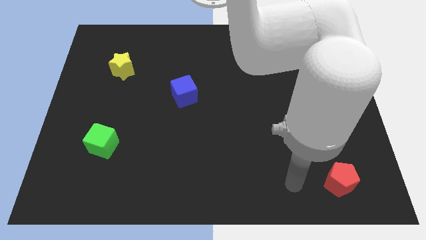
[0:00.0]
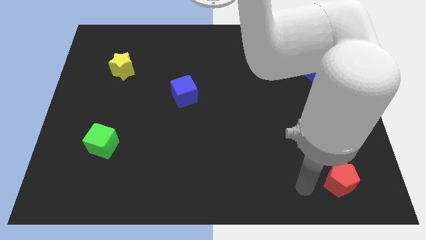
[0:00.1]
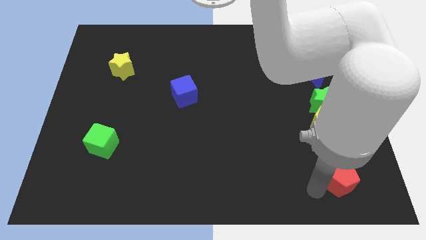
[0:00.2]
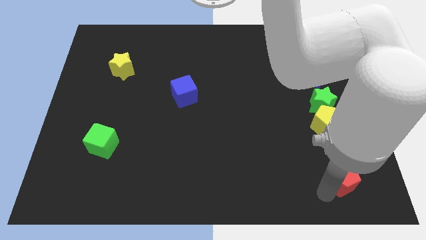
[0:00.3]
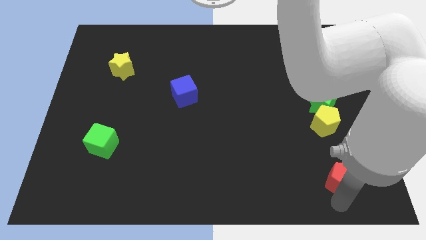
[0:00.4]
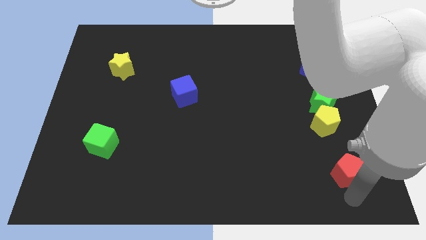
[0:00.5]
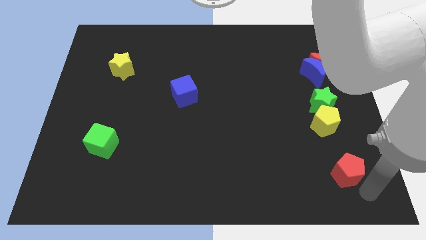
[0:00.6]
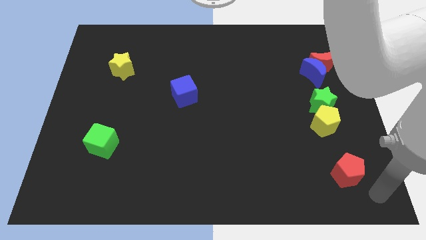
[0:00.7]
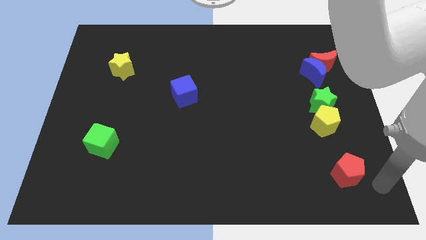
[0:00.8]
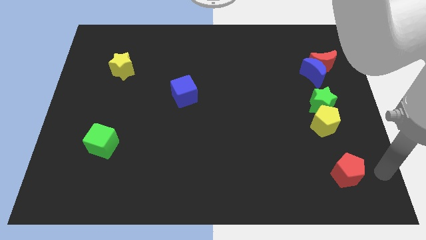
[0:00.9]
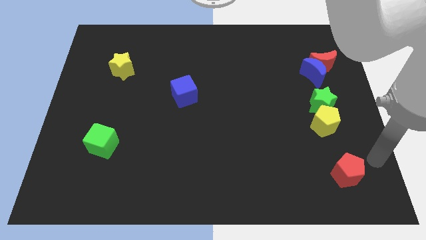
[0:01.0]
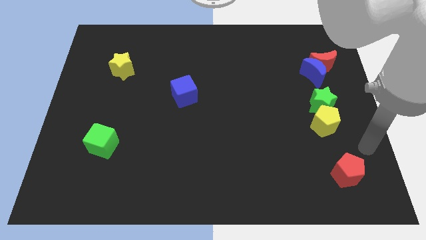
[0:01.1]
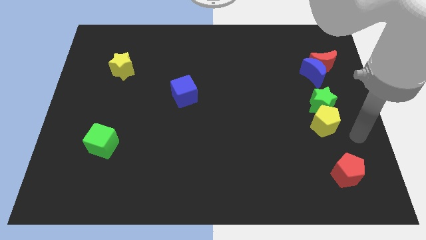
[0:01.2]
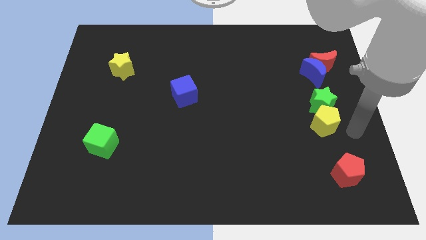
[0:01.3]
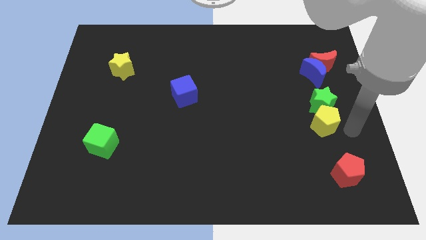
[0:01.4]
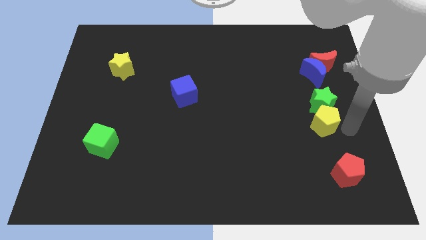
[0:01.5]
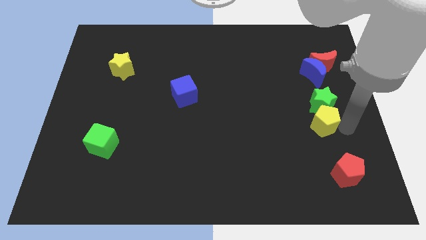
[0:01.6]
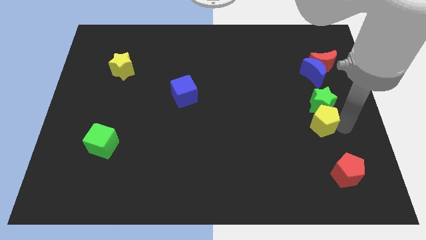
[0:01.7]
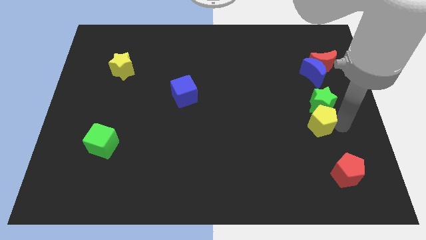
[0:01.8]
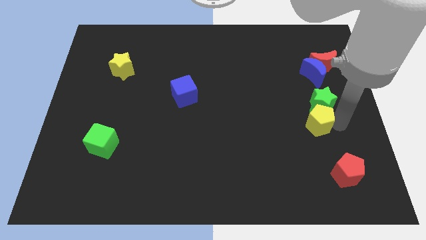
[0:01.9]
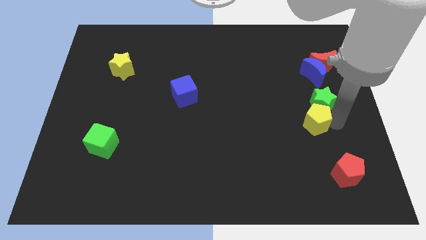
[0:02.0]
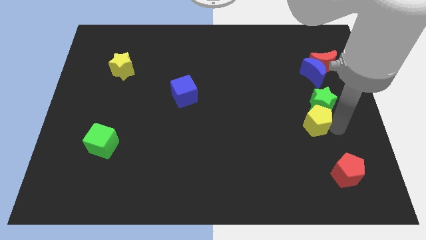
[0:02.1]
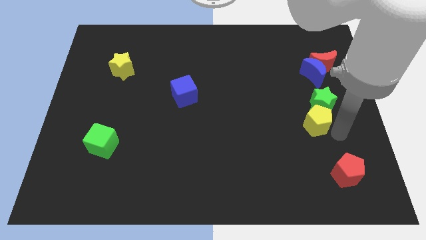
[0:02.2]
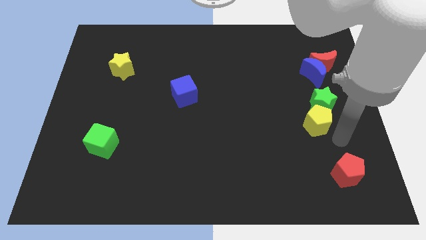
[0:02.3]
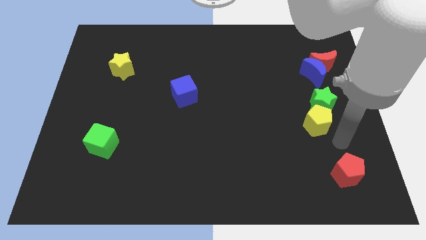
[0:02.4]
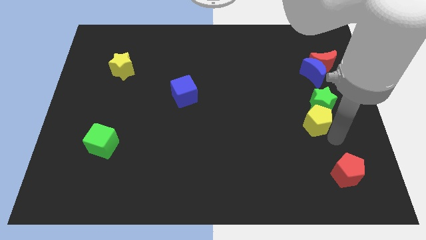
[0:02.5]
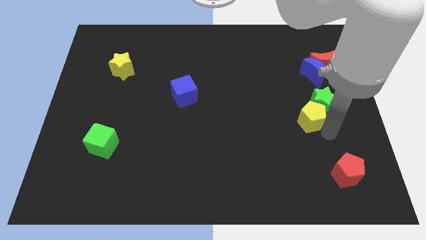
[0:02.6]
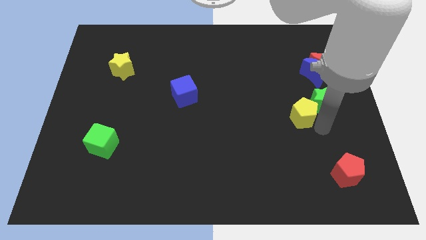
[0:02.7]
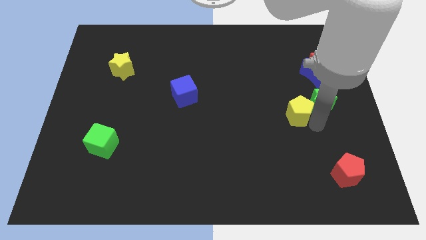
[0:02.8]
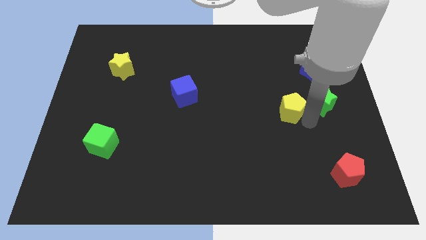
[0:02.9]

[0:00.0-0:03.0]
move the yellow pentagon a little up and to the left

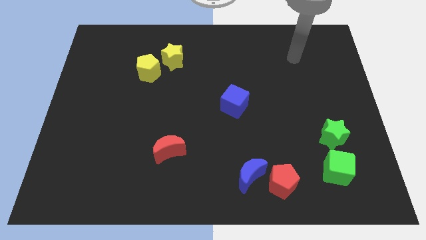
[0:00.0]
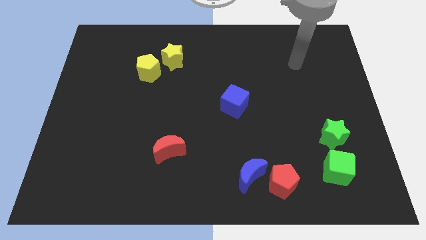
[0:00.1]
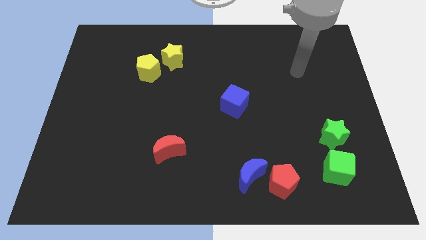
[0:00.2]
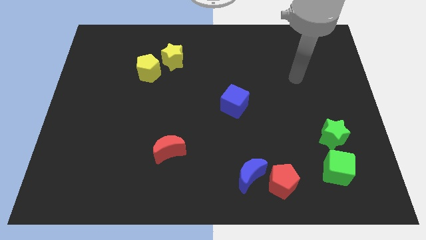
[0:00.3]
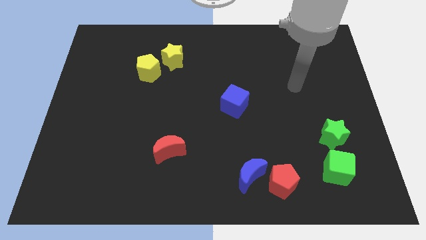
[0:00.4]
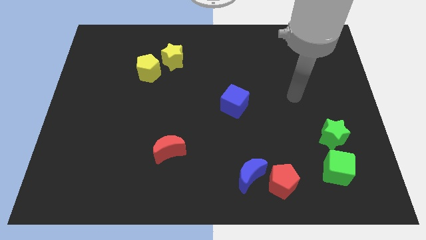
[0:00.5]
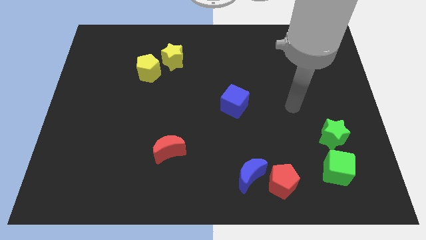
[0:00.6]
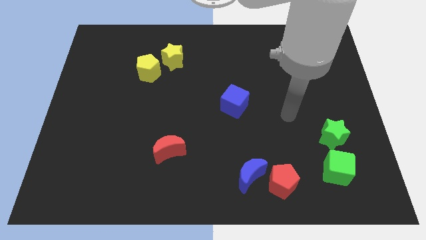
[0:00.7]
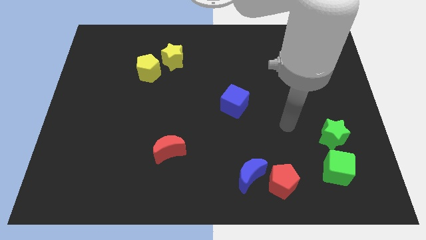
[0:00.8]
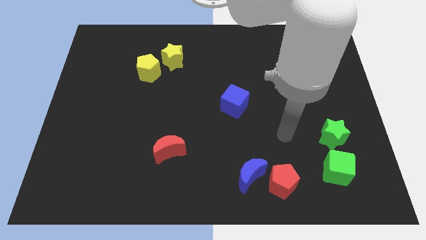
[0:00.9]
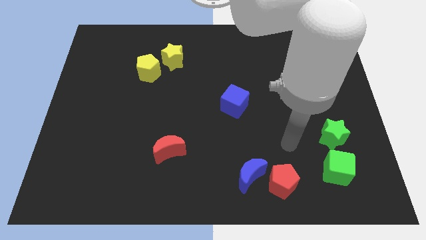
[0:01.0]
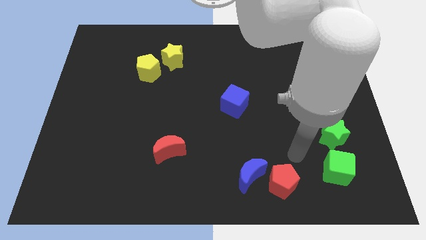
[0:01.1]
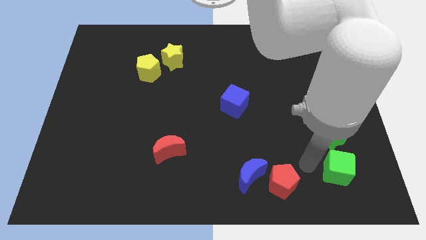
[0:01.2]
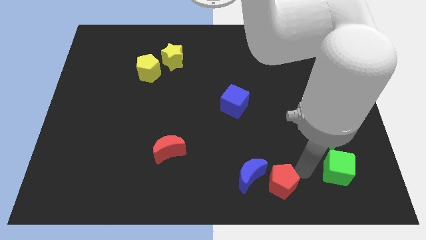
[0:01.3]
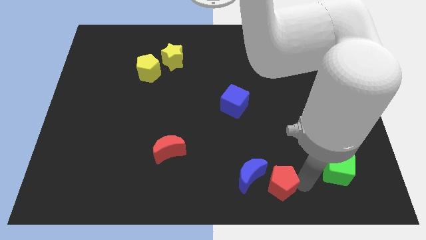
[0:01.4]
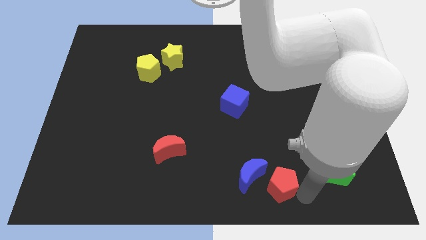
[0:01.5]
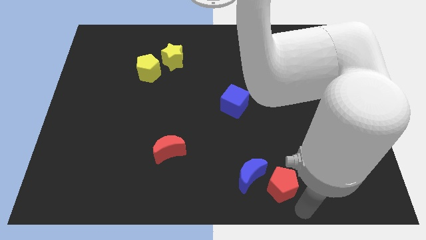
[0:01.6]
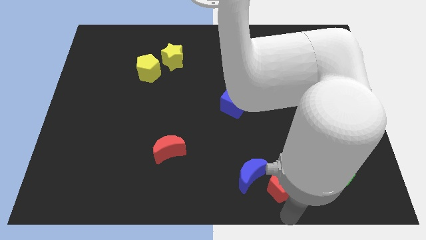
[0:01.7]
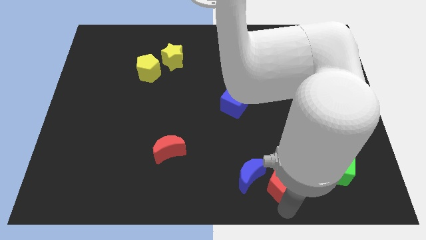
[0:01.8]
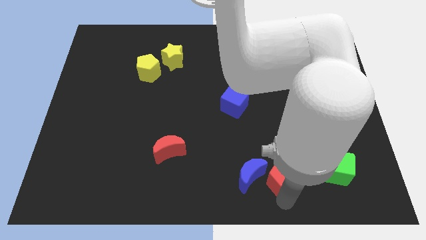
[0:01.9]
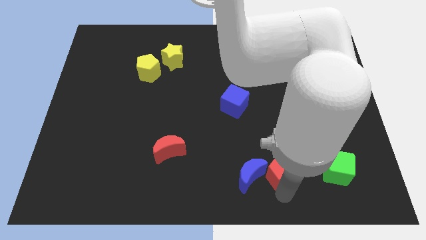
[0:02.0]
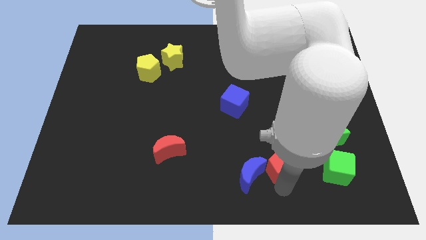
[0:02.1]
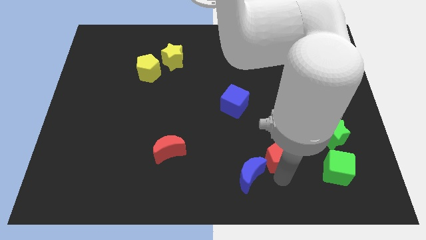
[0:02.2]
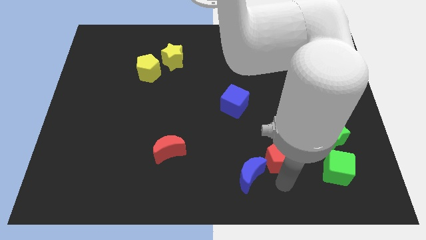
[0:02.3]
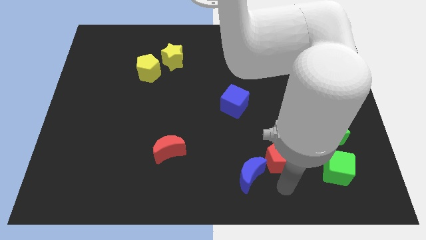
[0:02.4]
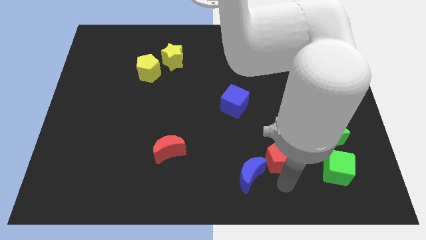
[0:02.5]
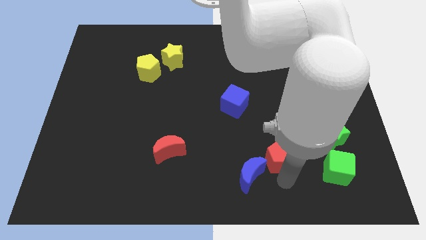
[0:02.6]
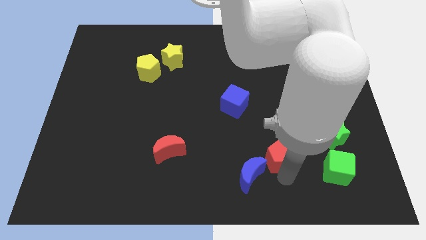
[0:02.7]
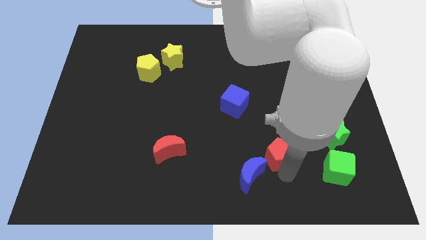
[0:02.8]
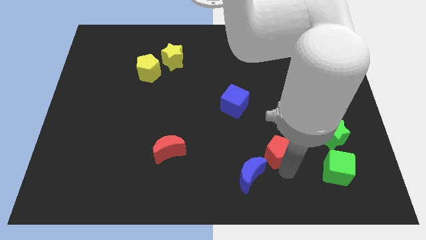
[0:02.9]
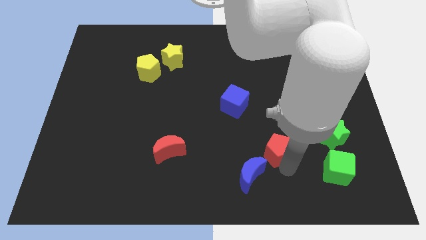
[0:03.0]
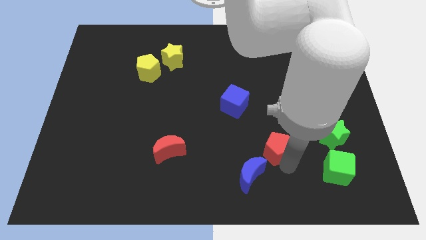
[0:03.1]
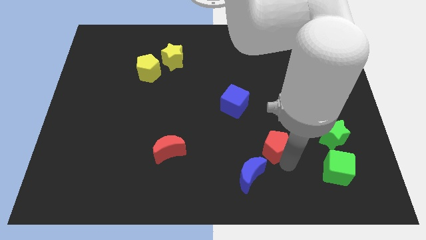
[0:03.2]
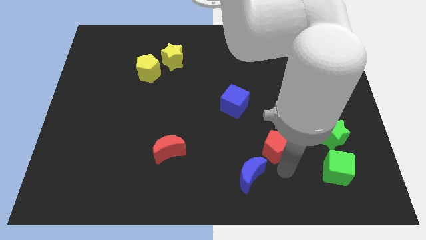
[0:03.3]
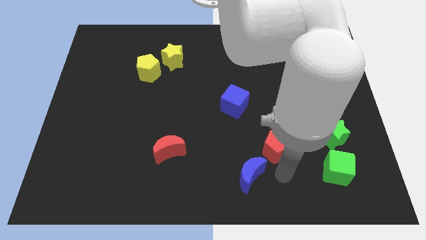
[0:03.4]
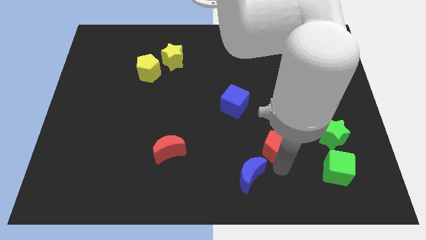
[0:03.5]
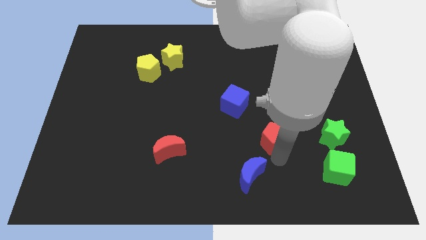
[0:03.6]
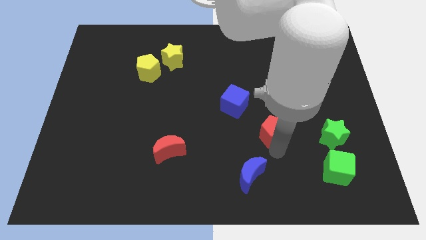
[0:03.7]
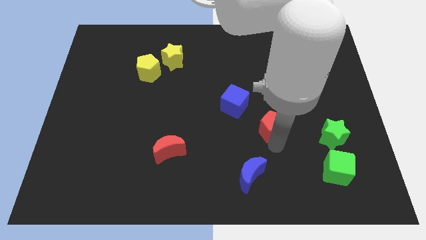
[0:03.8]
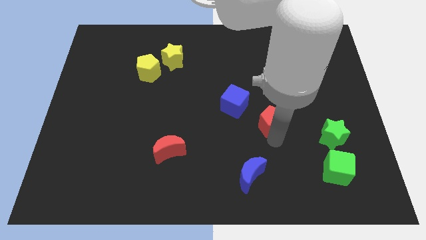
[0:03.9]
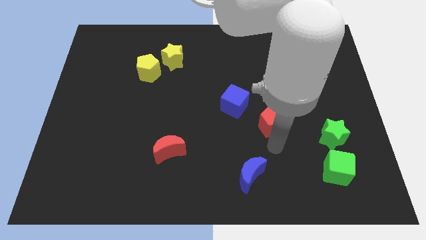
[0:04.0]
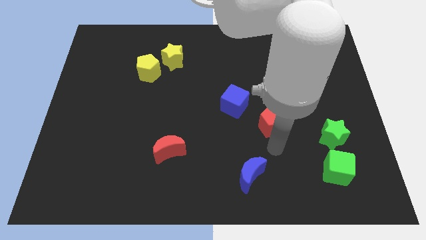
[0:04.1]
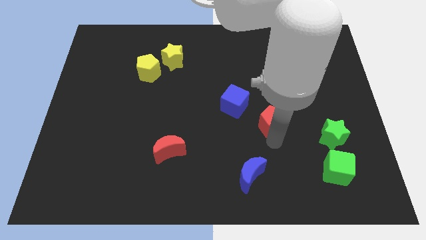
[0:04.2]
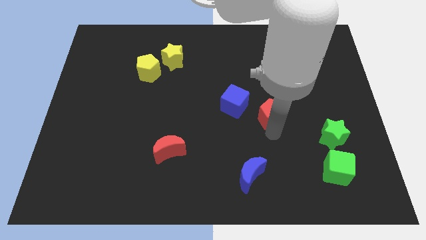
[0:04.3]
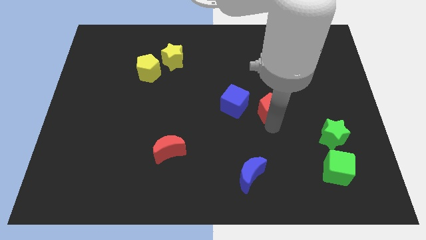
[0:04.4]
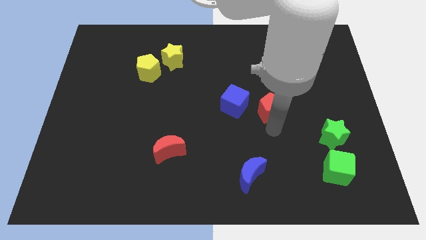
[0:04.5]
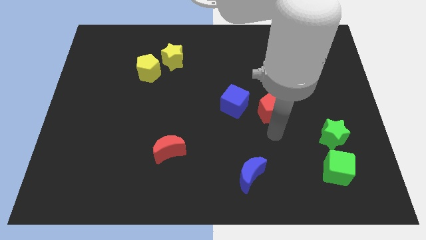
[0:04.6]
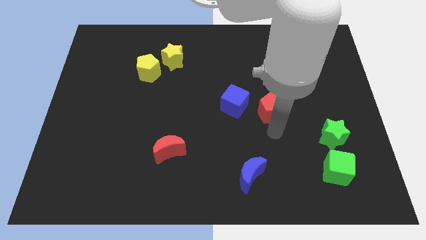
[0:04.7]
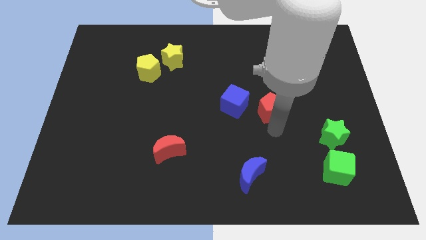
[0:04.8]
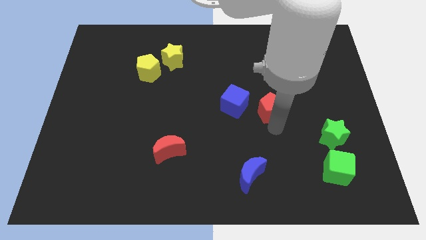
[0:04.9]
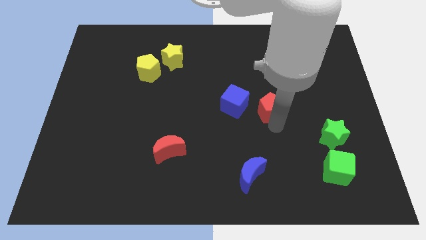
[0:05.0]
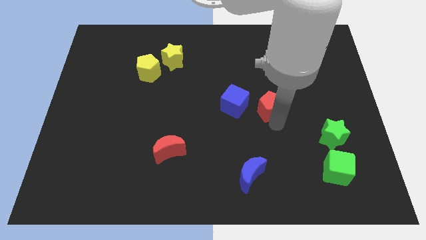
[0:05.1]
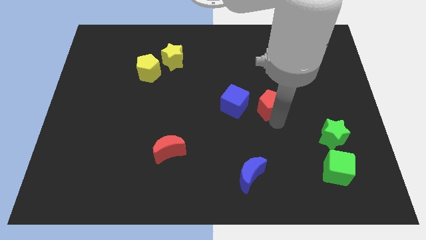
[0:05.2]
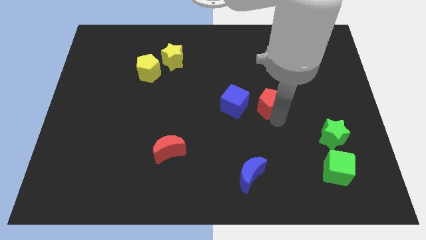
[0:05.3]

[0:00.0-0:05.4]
move the red pentagon upwards

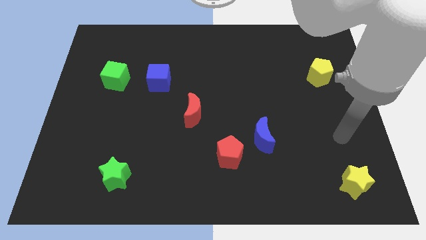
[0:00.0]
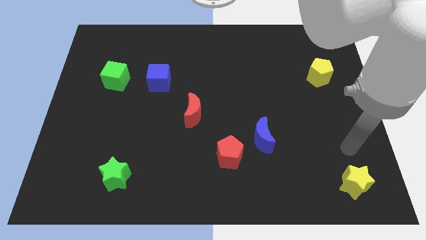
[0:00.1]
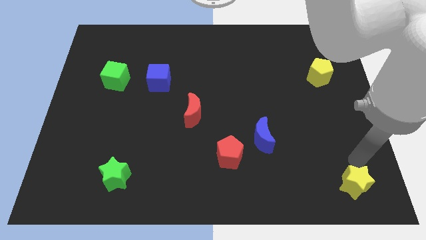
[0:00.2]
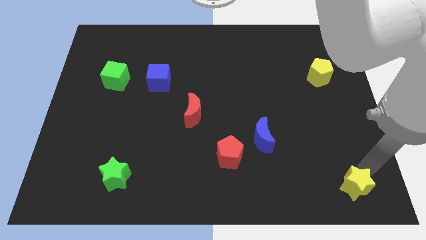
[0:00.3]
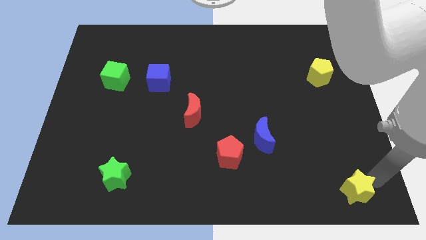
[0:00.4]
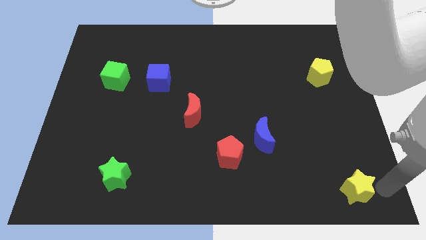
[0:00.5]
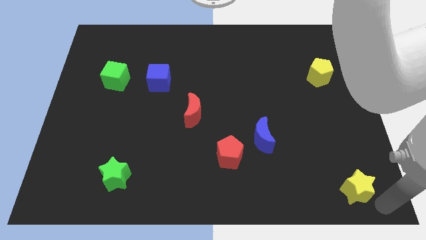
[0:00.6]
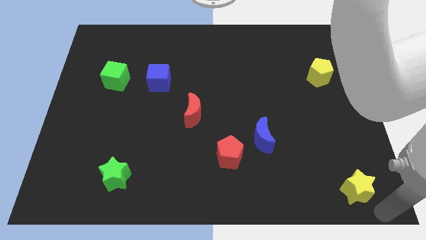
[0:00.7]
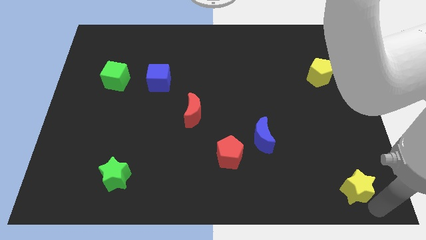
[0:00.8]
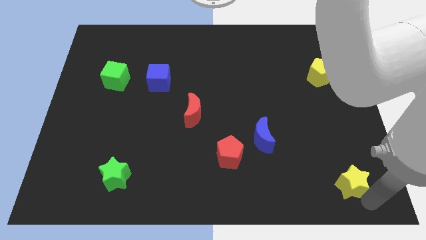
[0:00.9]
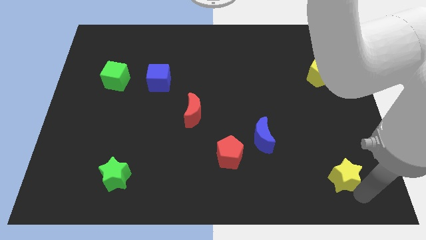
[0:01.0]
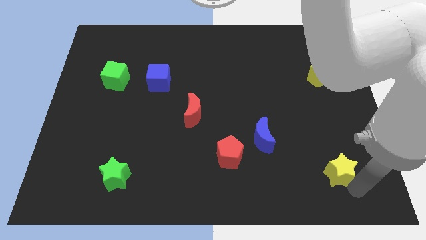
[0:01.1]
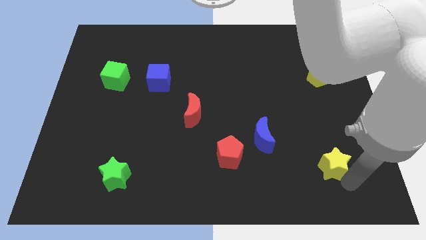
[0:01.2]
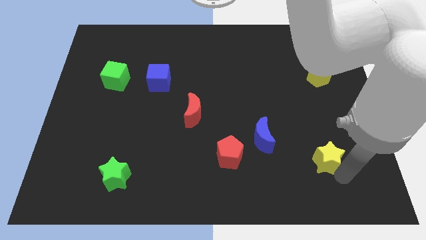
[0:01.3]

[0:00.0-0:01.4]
slide the yellow star up and left slightly
